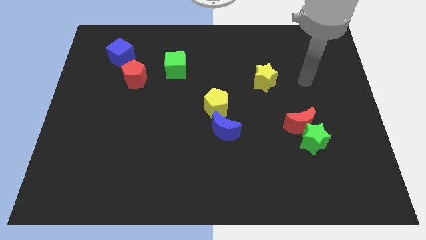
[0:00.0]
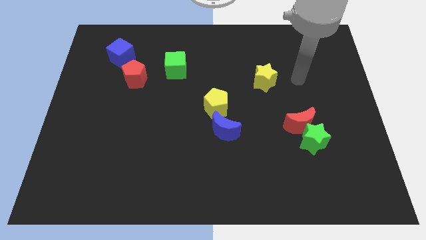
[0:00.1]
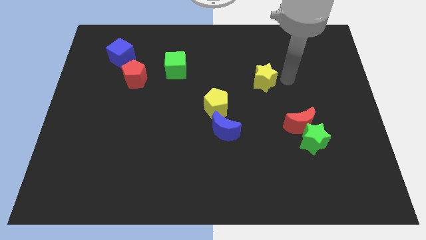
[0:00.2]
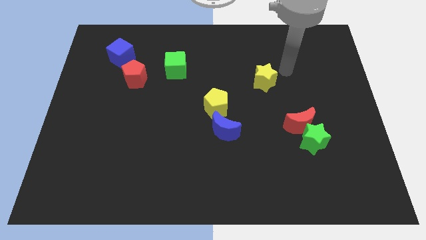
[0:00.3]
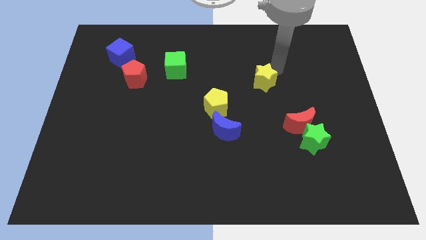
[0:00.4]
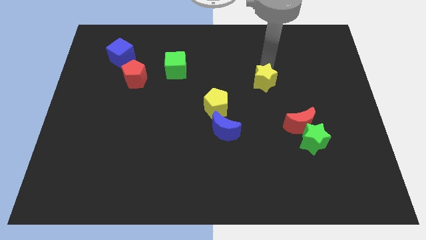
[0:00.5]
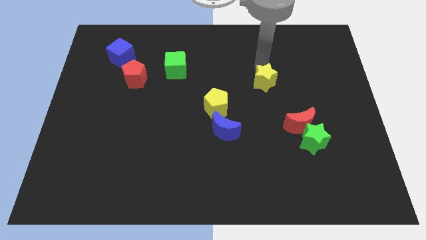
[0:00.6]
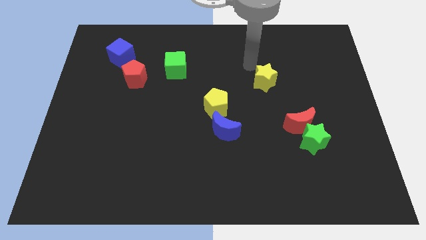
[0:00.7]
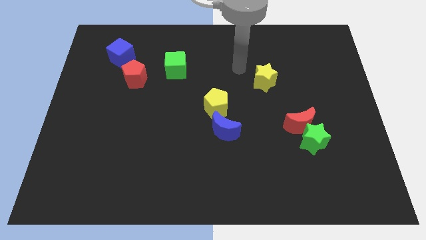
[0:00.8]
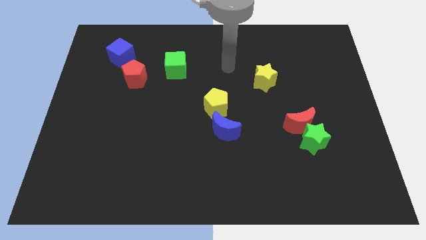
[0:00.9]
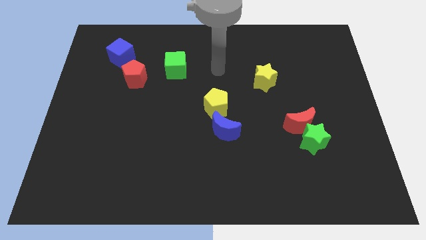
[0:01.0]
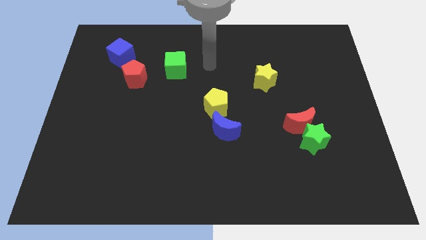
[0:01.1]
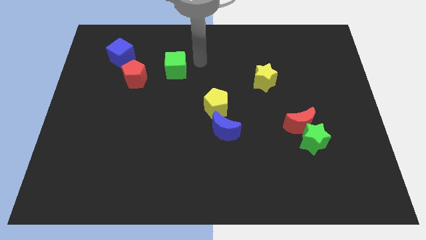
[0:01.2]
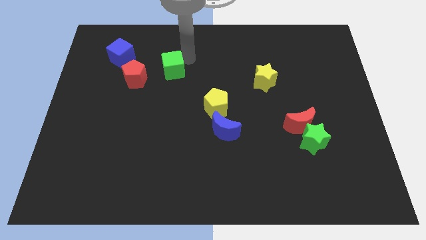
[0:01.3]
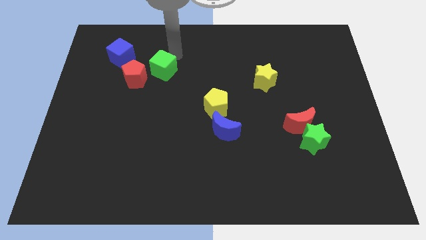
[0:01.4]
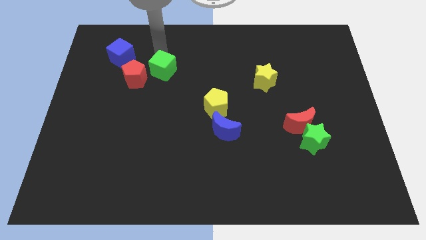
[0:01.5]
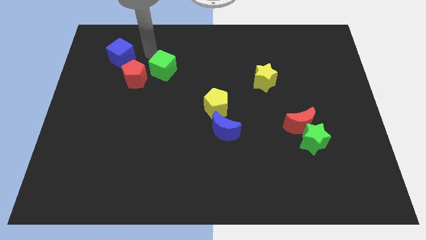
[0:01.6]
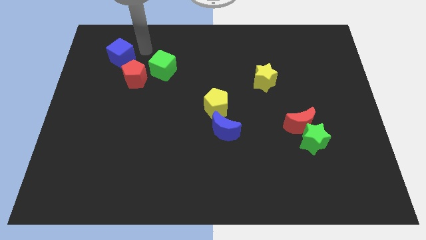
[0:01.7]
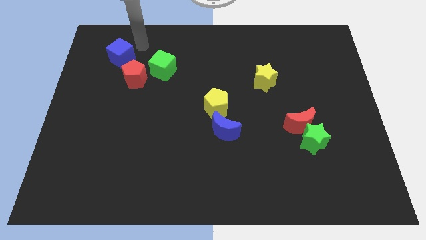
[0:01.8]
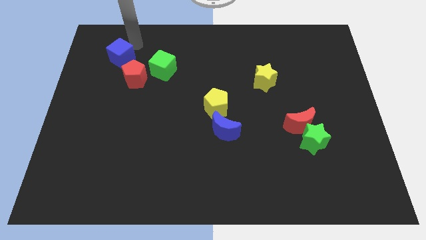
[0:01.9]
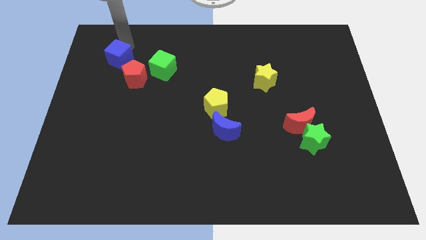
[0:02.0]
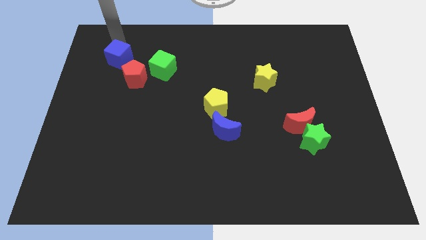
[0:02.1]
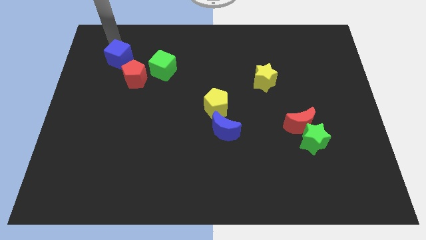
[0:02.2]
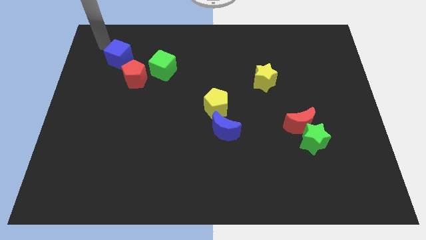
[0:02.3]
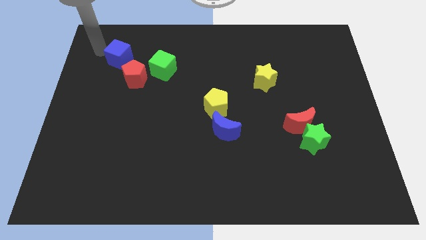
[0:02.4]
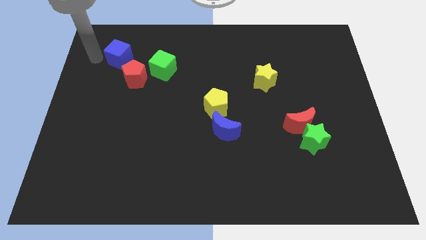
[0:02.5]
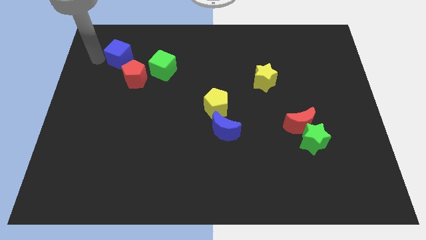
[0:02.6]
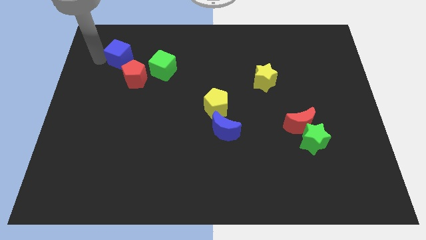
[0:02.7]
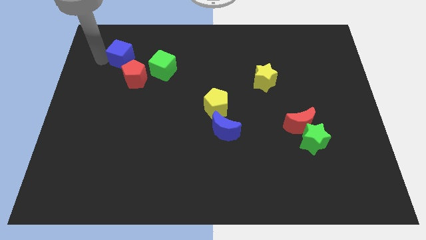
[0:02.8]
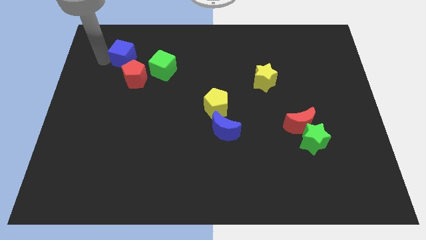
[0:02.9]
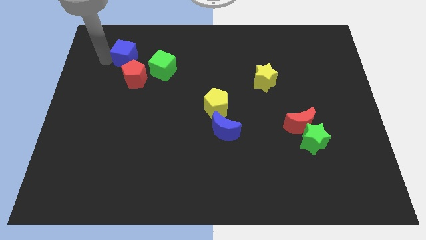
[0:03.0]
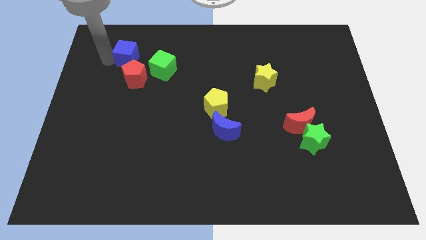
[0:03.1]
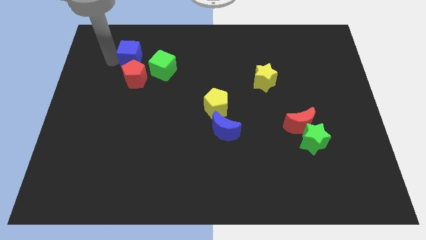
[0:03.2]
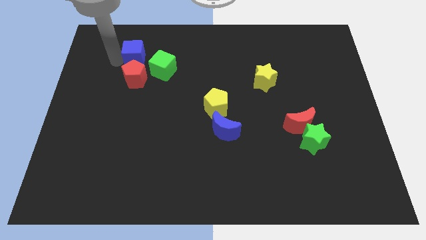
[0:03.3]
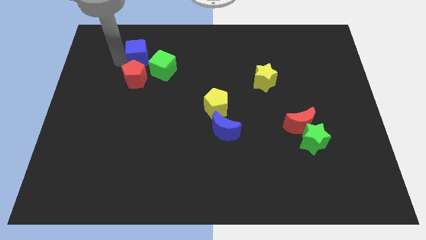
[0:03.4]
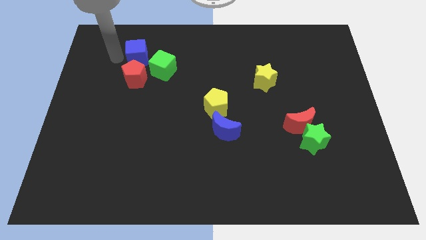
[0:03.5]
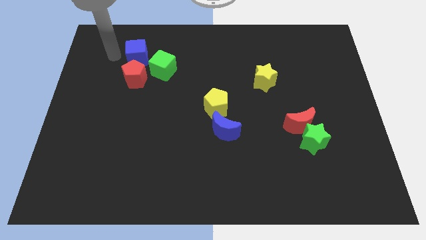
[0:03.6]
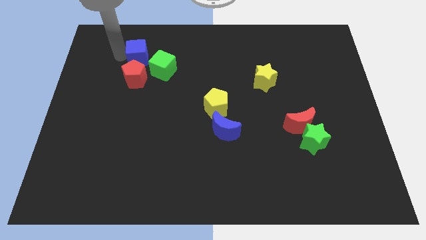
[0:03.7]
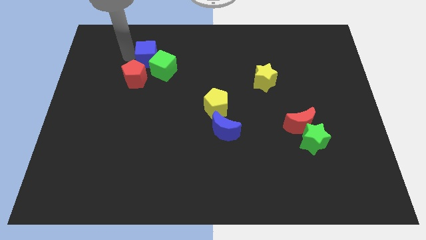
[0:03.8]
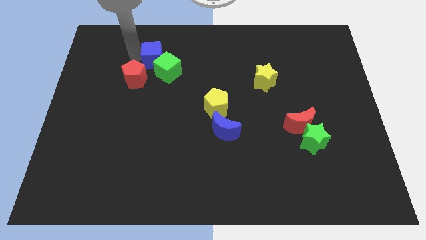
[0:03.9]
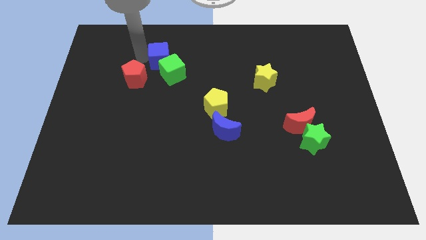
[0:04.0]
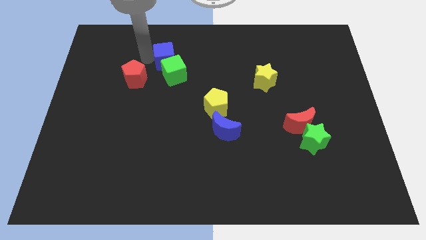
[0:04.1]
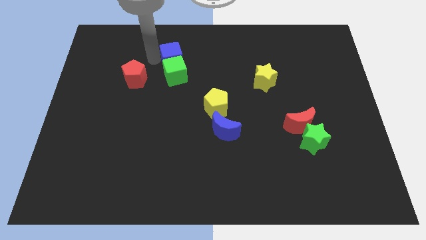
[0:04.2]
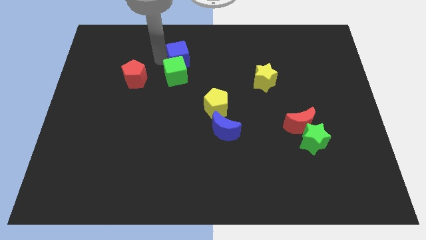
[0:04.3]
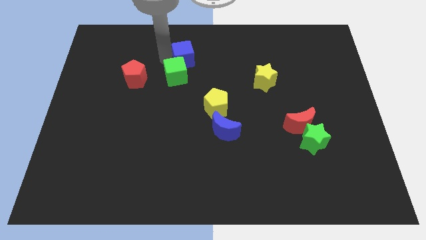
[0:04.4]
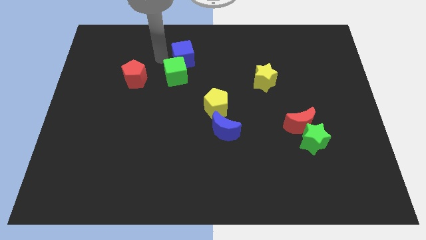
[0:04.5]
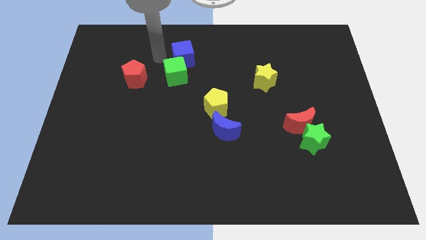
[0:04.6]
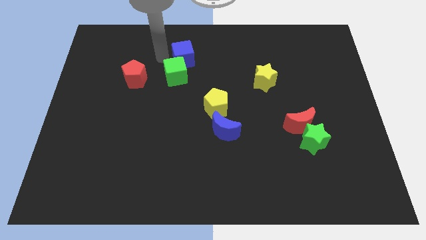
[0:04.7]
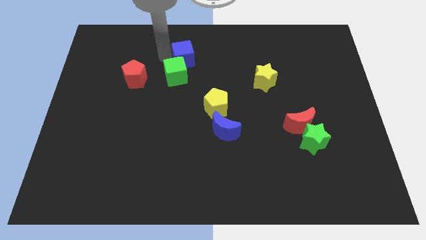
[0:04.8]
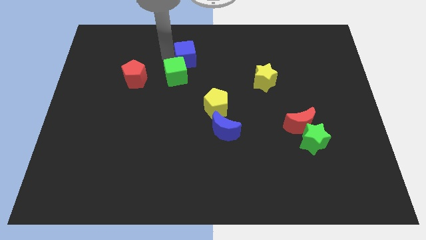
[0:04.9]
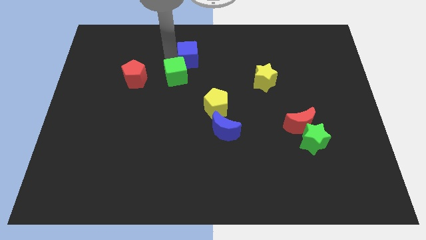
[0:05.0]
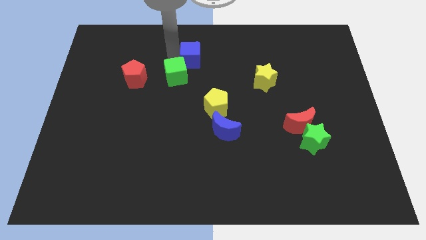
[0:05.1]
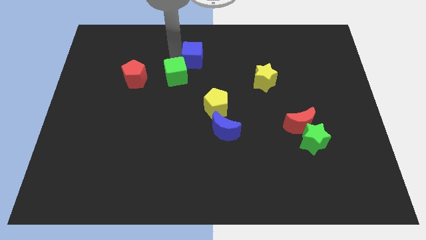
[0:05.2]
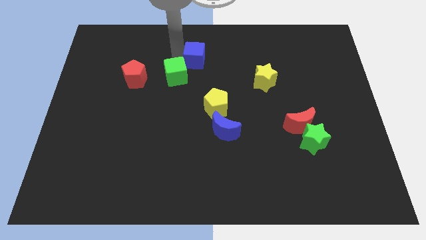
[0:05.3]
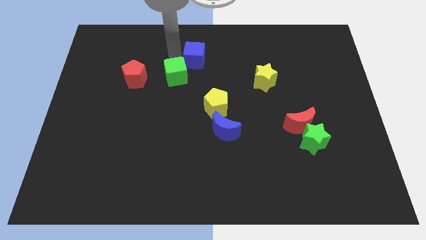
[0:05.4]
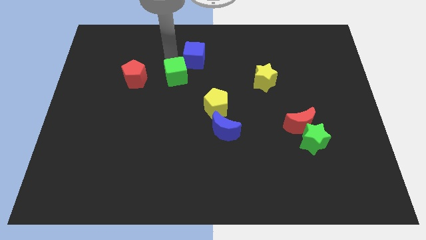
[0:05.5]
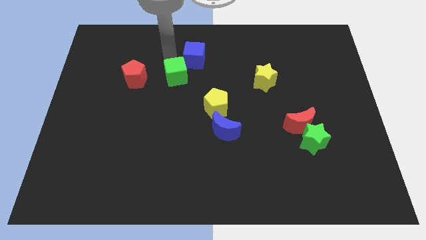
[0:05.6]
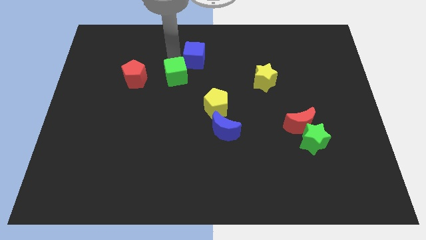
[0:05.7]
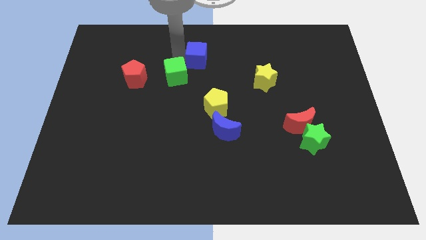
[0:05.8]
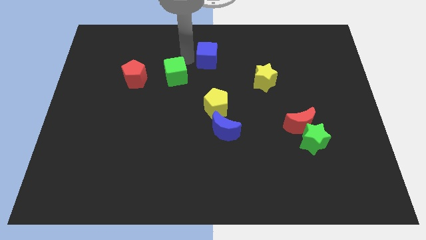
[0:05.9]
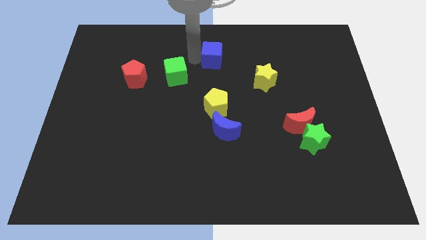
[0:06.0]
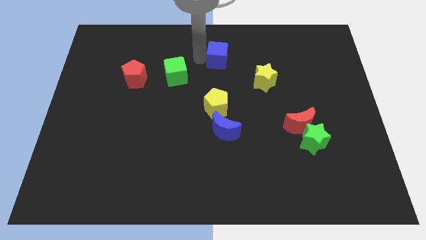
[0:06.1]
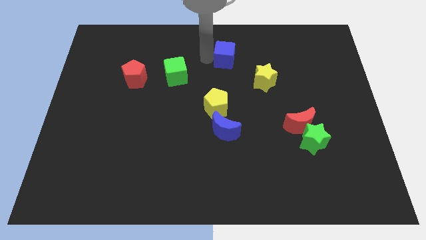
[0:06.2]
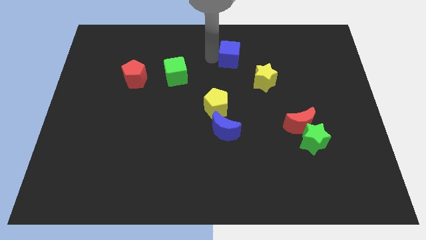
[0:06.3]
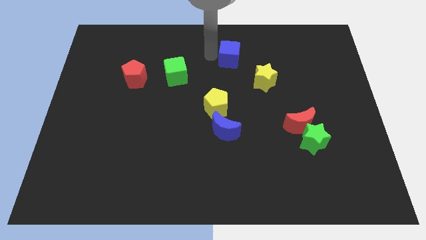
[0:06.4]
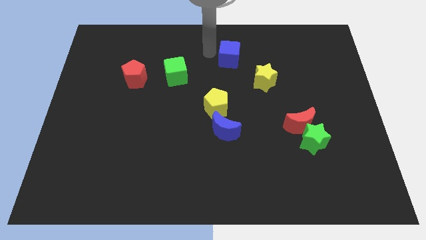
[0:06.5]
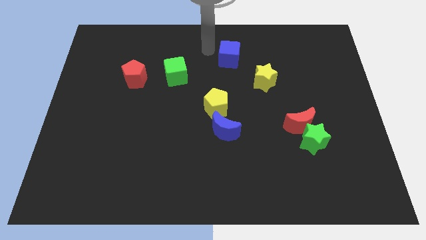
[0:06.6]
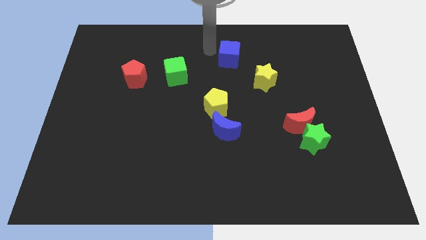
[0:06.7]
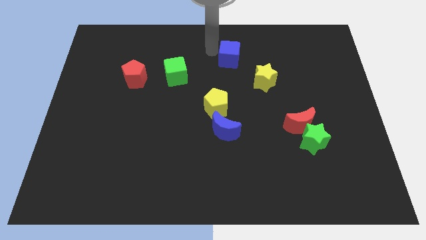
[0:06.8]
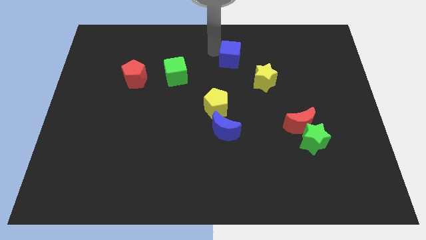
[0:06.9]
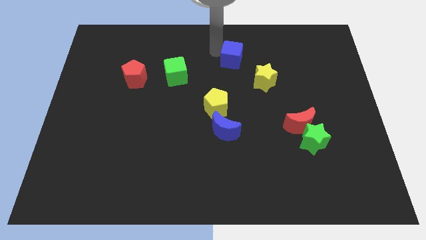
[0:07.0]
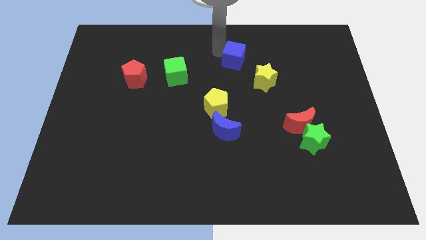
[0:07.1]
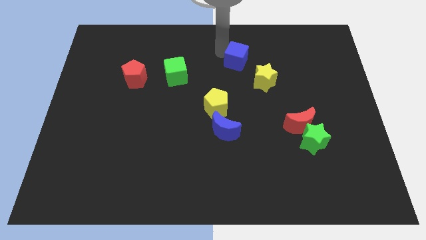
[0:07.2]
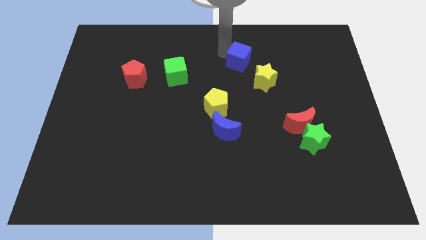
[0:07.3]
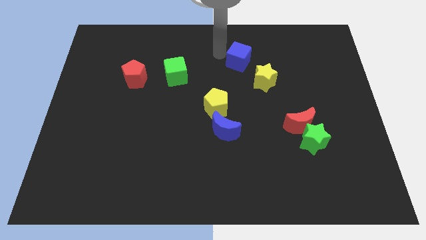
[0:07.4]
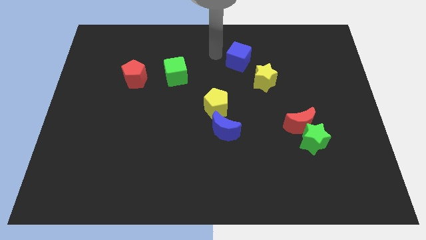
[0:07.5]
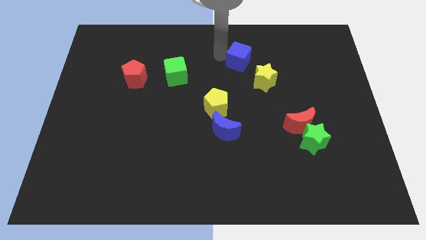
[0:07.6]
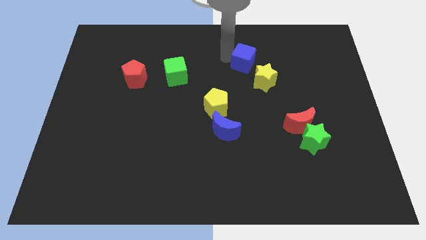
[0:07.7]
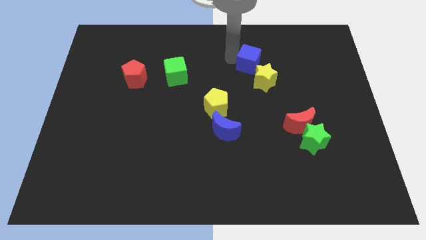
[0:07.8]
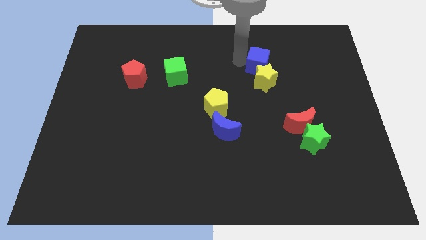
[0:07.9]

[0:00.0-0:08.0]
put the blue cube diagonally up and to the right of the yellow star
